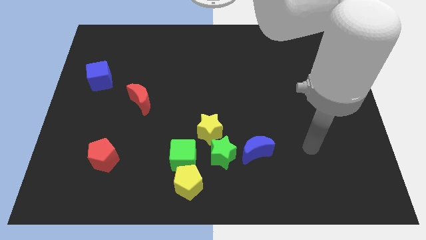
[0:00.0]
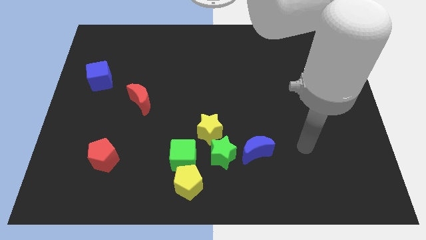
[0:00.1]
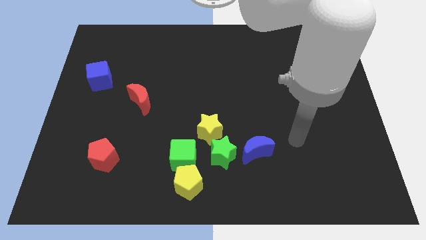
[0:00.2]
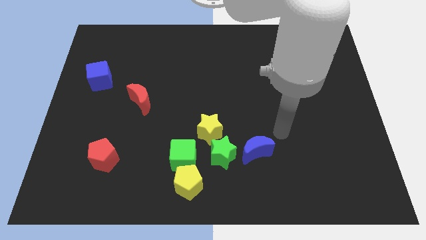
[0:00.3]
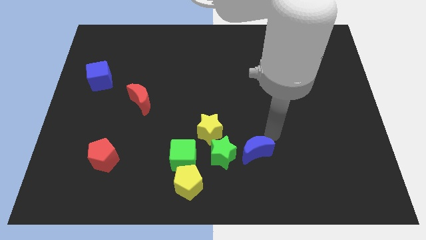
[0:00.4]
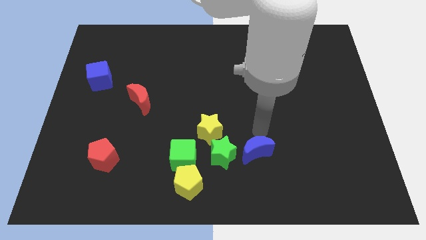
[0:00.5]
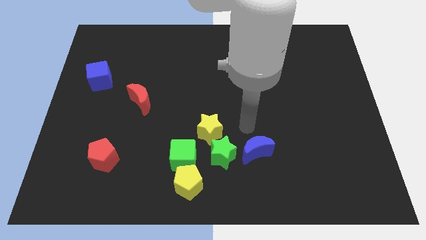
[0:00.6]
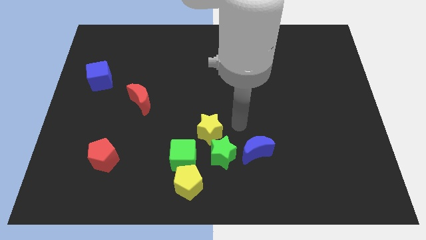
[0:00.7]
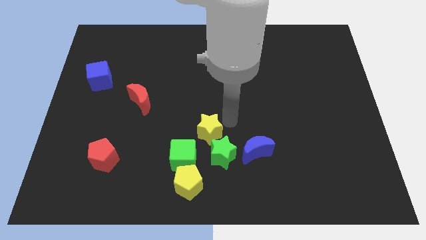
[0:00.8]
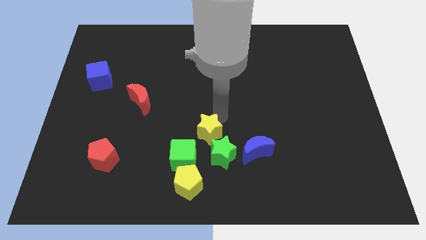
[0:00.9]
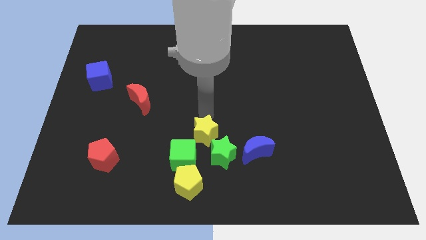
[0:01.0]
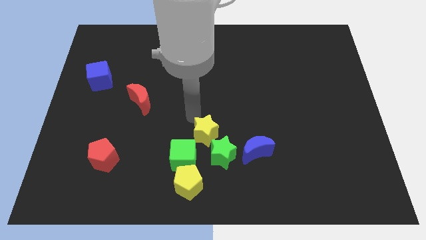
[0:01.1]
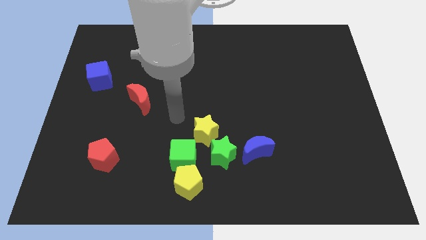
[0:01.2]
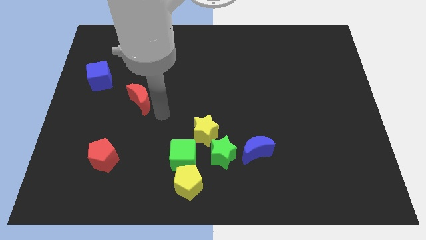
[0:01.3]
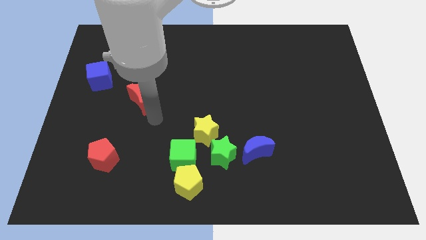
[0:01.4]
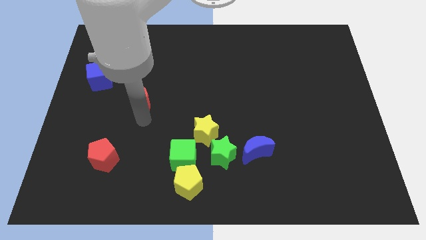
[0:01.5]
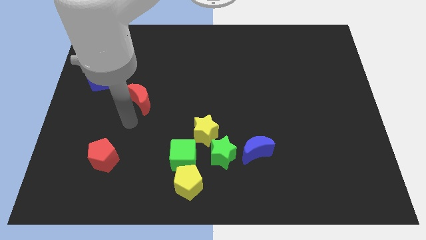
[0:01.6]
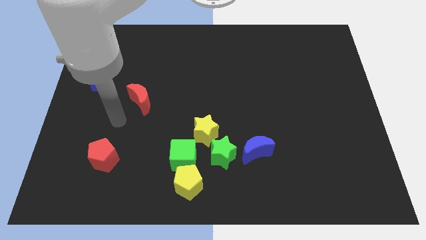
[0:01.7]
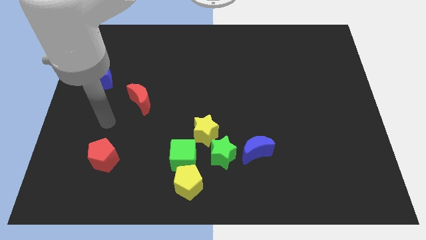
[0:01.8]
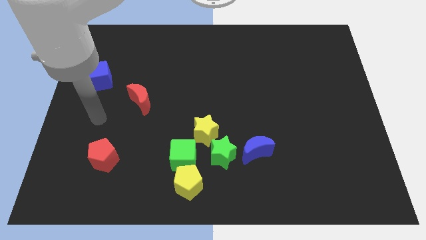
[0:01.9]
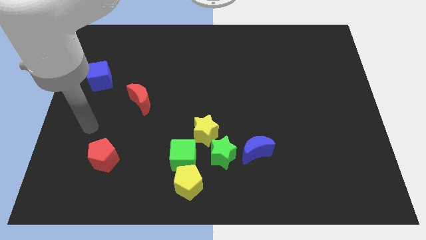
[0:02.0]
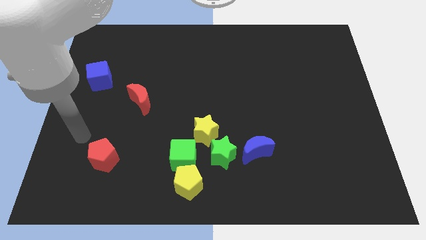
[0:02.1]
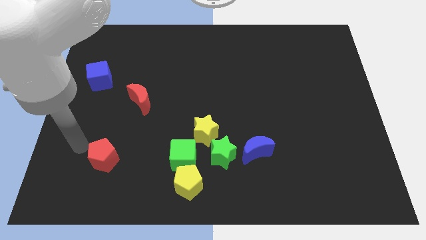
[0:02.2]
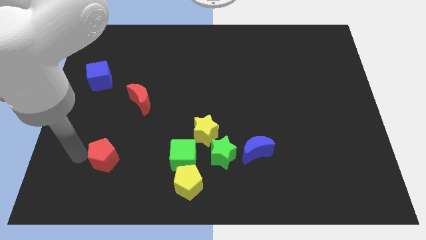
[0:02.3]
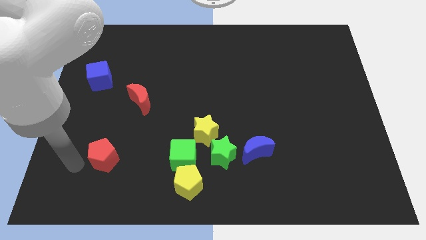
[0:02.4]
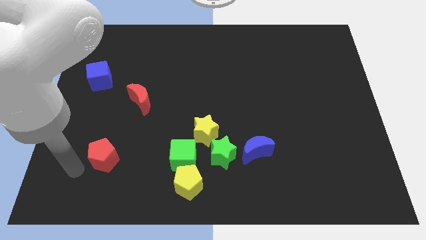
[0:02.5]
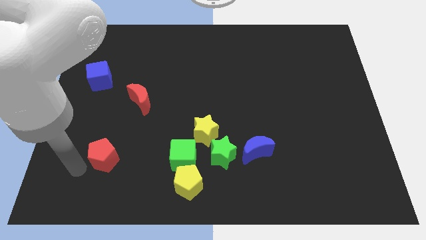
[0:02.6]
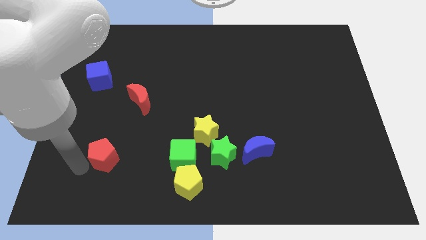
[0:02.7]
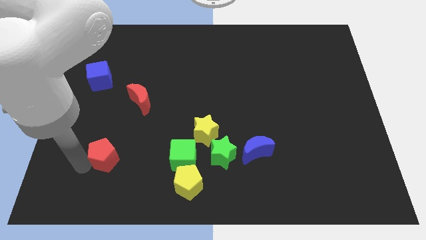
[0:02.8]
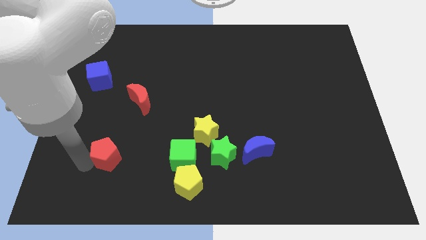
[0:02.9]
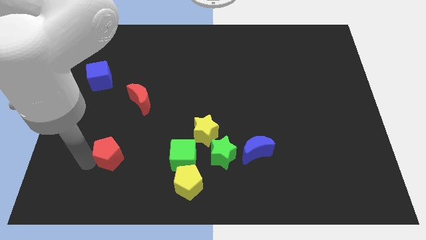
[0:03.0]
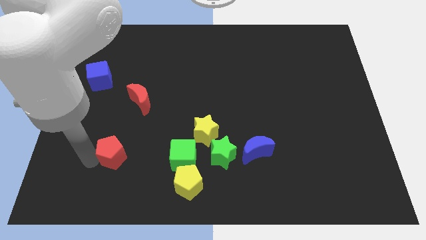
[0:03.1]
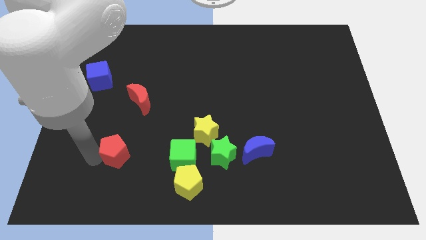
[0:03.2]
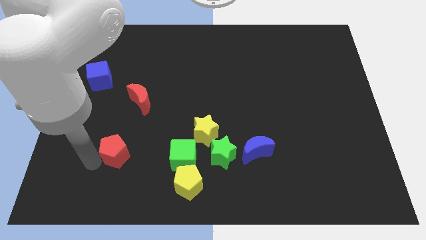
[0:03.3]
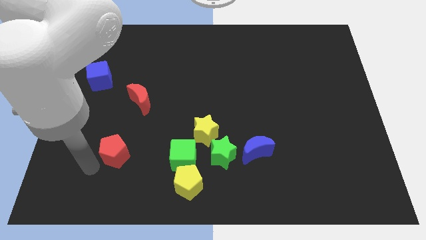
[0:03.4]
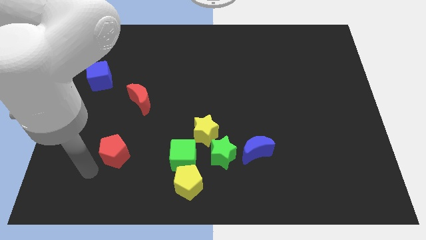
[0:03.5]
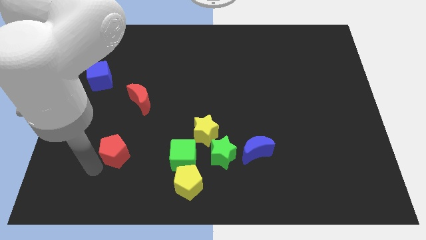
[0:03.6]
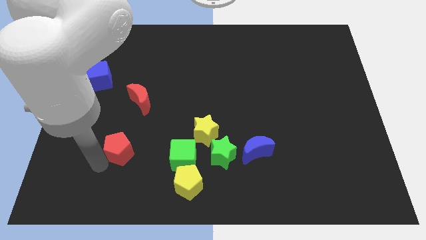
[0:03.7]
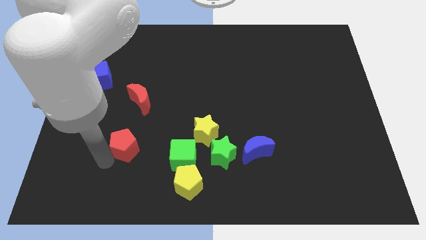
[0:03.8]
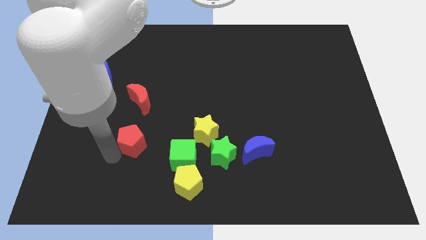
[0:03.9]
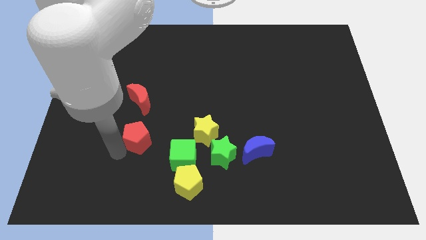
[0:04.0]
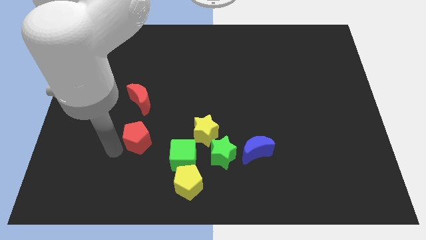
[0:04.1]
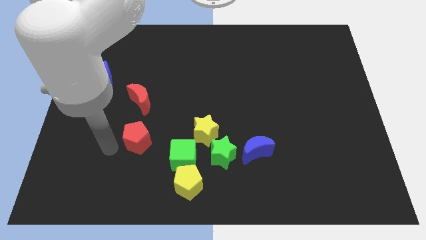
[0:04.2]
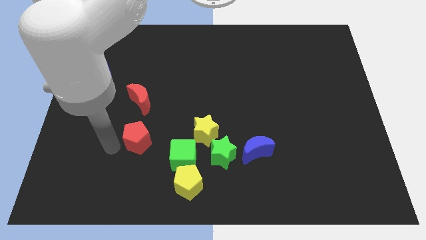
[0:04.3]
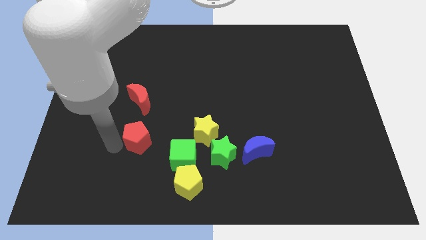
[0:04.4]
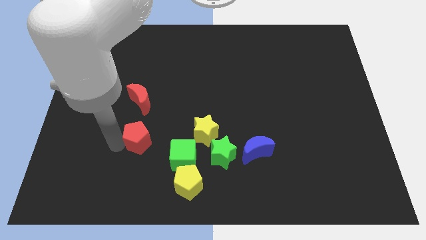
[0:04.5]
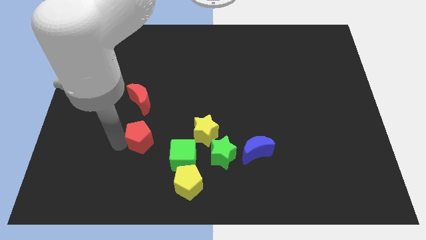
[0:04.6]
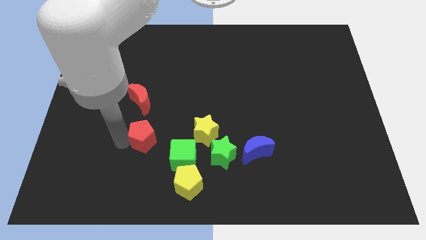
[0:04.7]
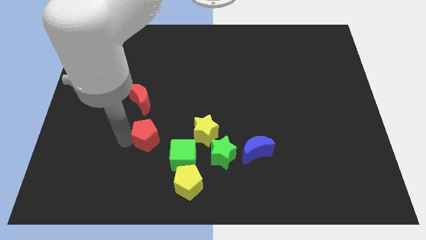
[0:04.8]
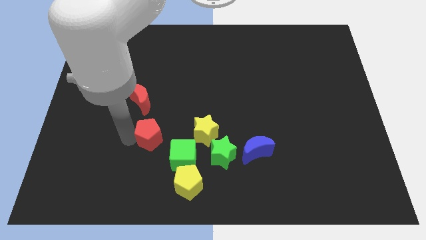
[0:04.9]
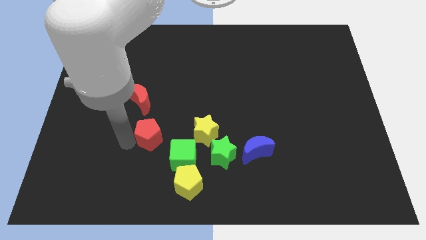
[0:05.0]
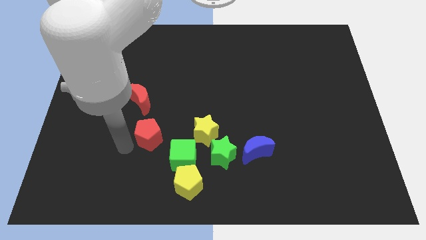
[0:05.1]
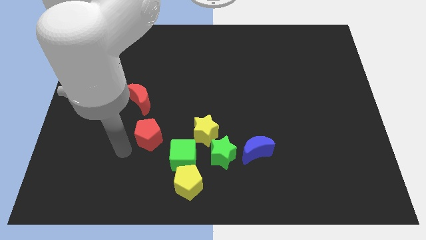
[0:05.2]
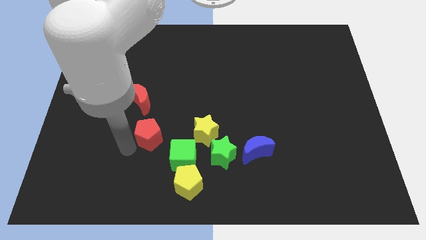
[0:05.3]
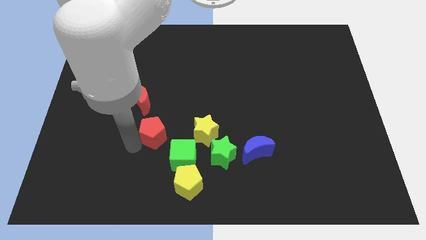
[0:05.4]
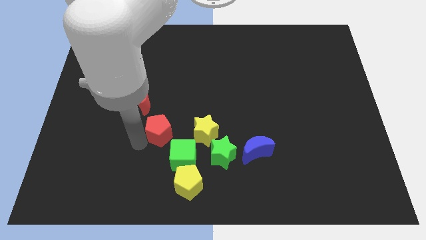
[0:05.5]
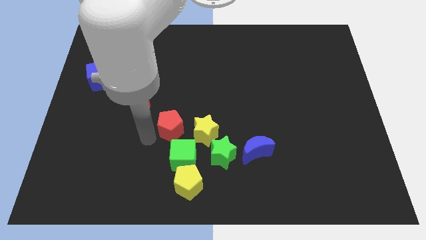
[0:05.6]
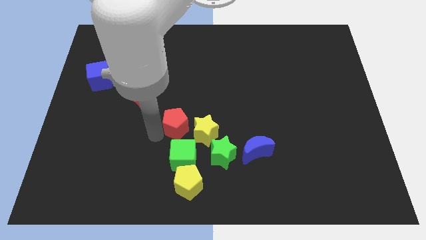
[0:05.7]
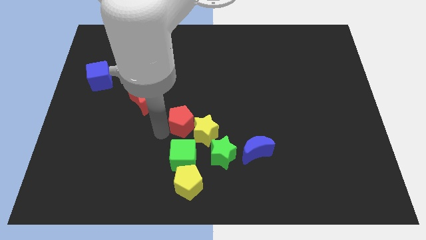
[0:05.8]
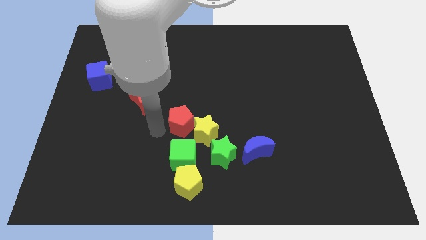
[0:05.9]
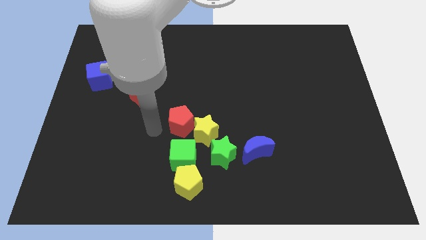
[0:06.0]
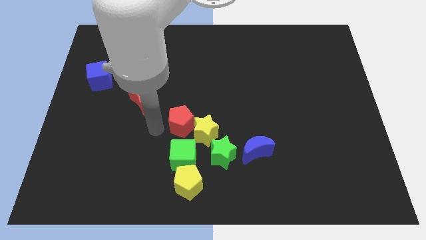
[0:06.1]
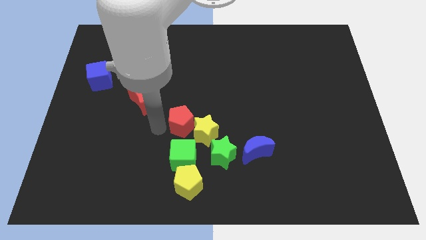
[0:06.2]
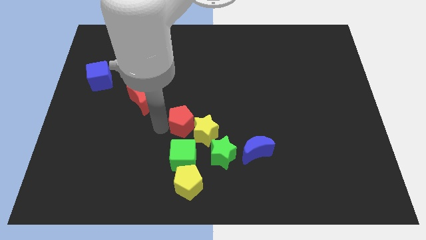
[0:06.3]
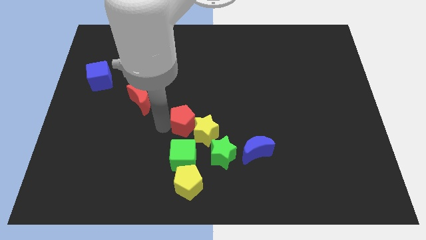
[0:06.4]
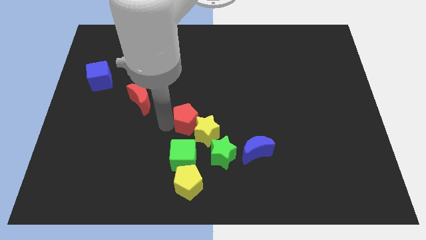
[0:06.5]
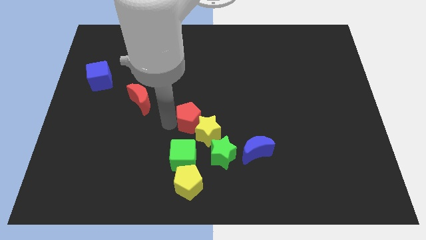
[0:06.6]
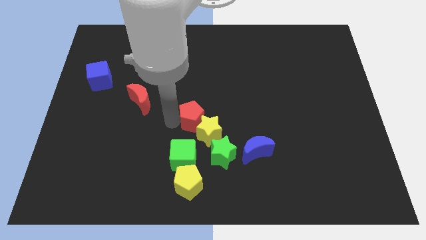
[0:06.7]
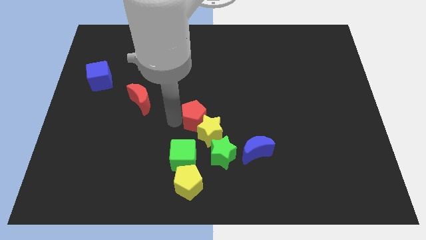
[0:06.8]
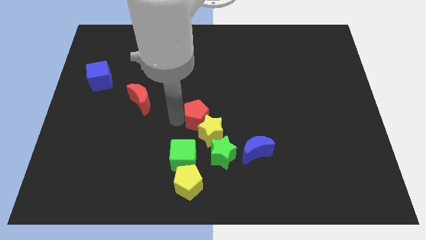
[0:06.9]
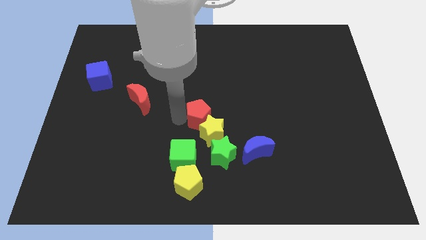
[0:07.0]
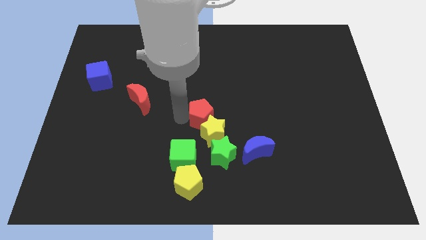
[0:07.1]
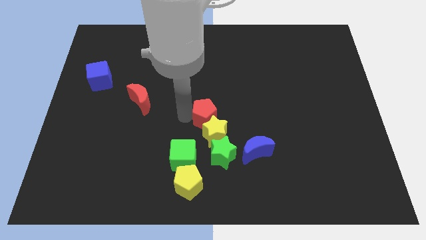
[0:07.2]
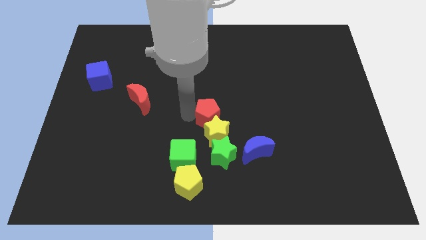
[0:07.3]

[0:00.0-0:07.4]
slide the red pentagon diagonally up and to the right of the yellow star
